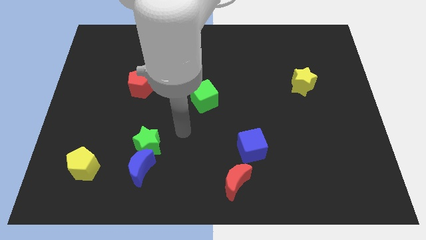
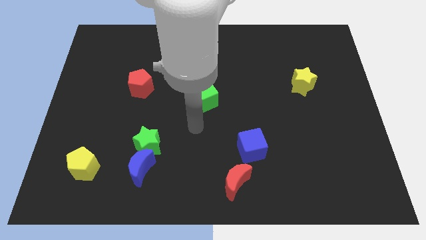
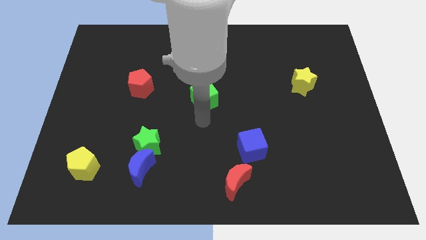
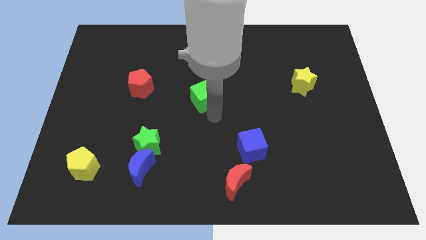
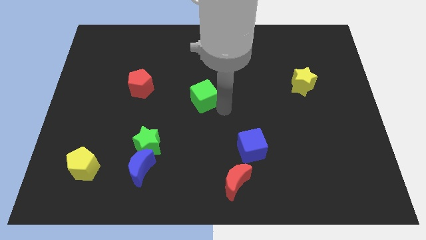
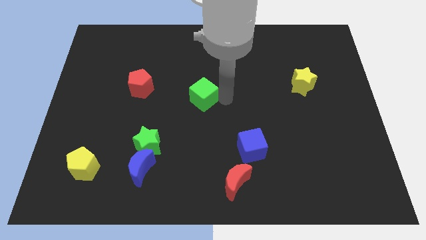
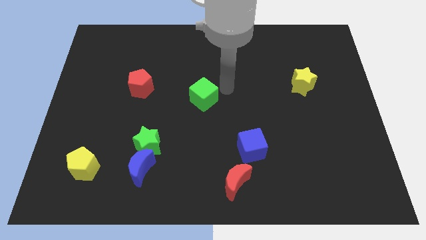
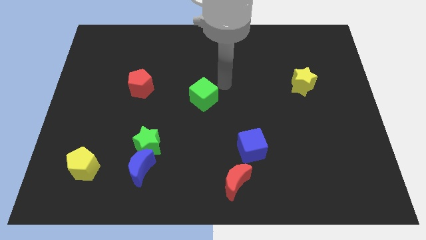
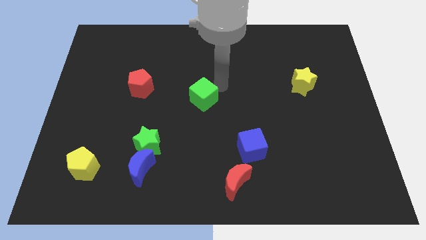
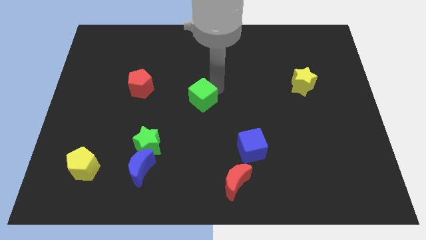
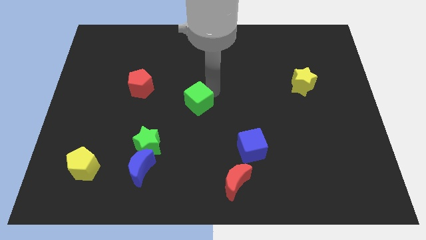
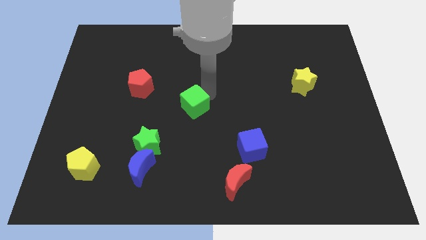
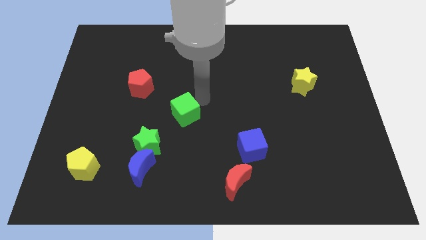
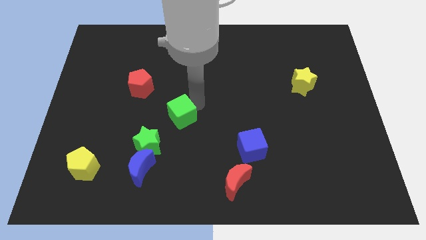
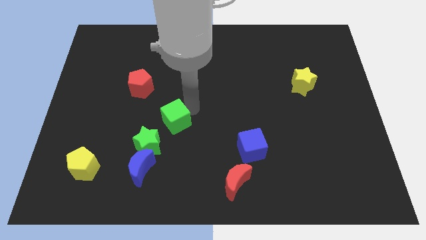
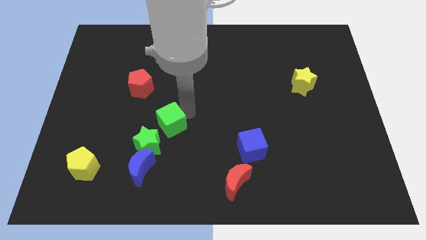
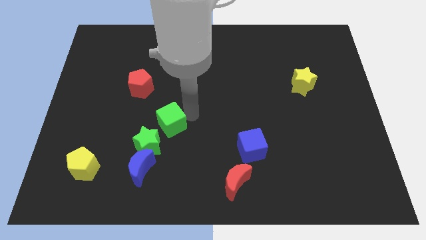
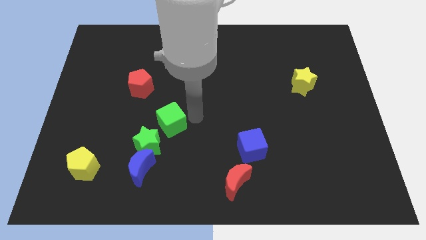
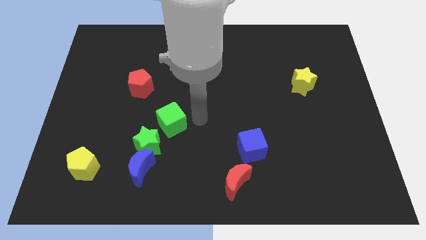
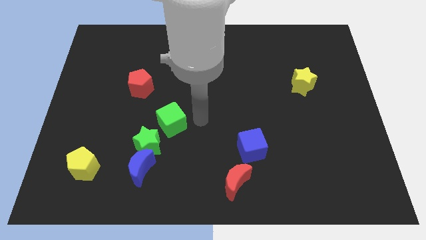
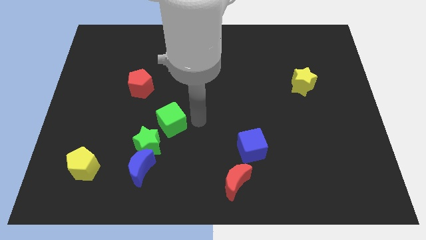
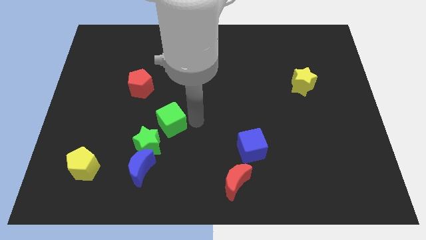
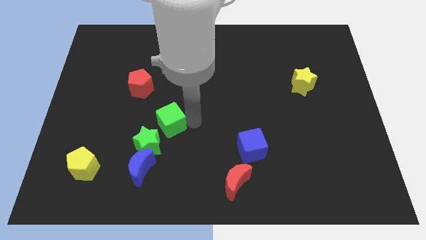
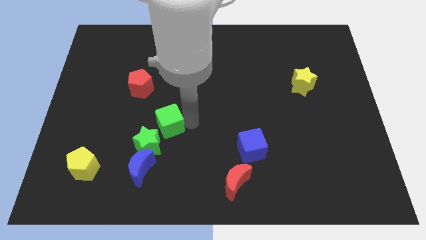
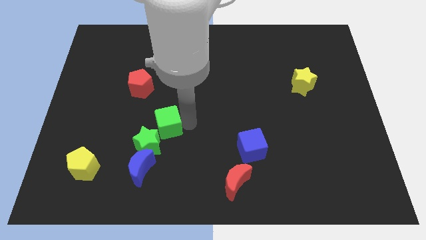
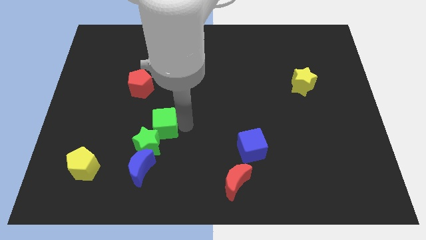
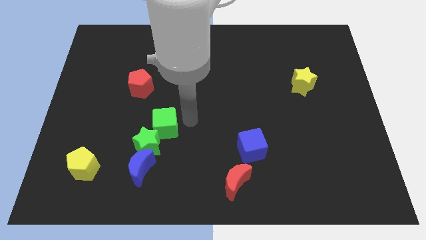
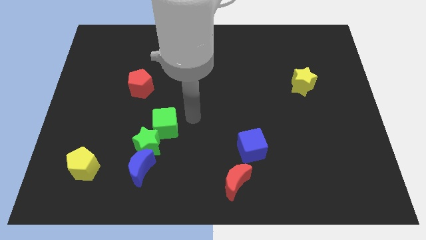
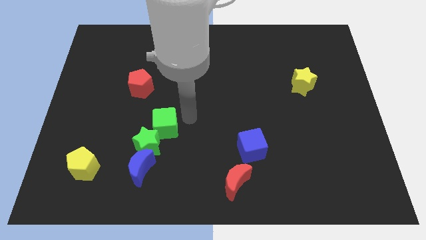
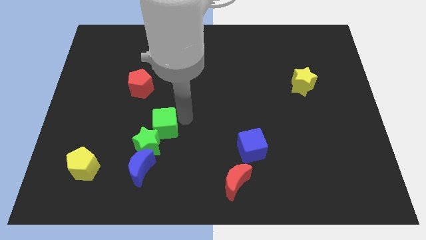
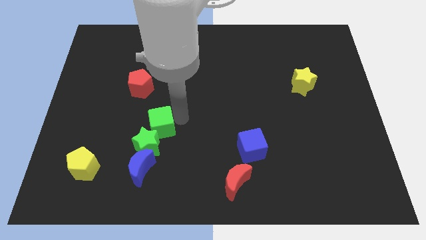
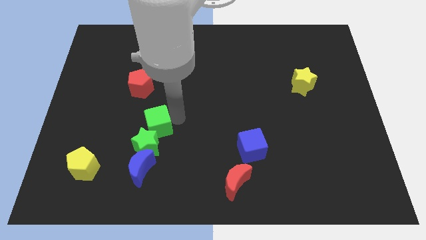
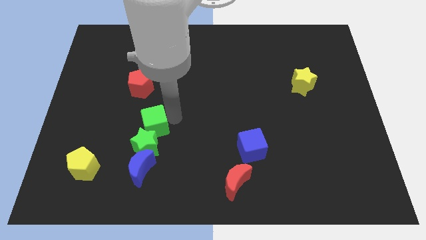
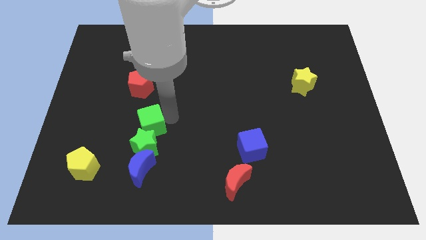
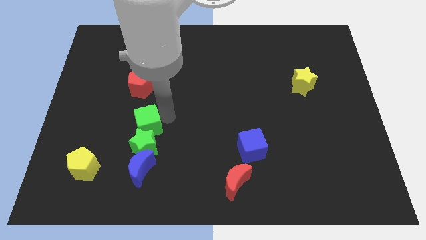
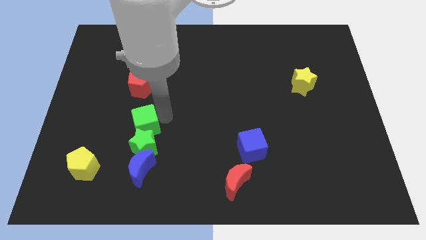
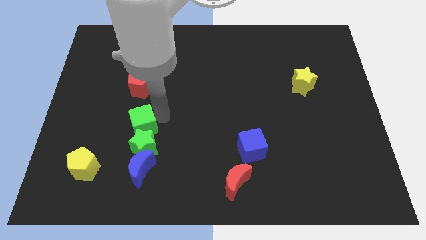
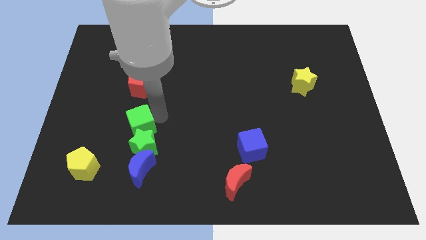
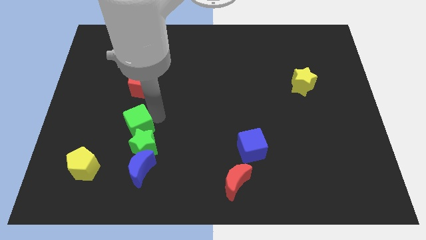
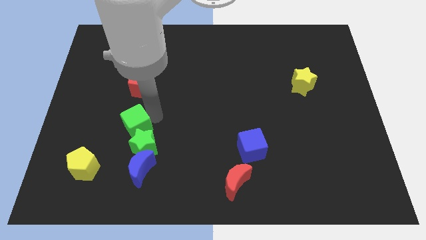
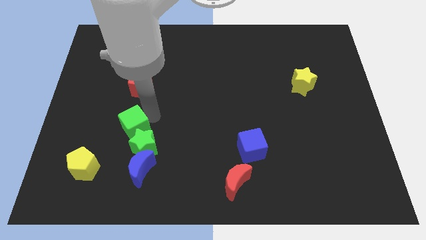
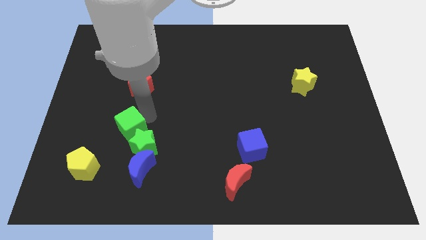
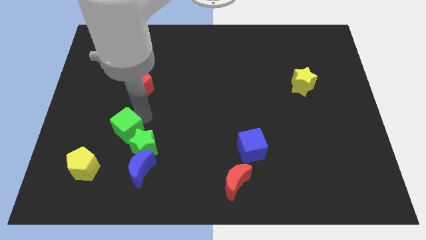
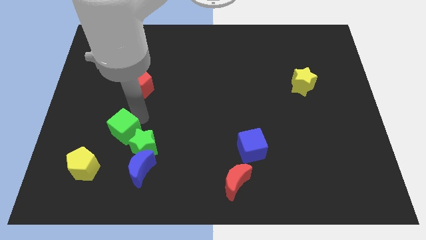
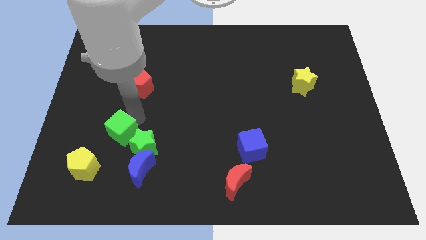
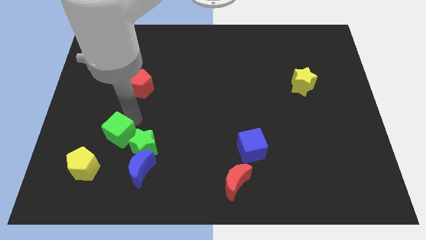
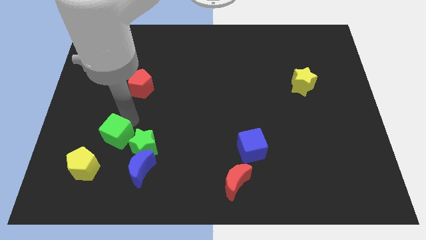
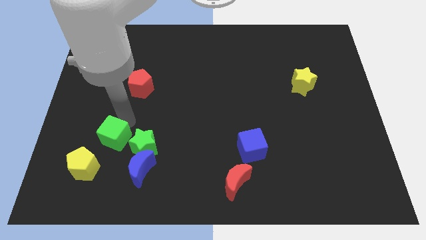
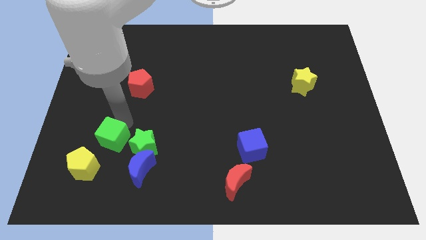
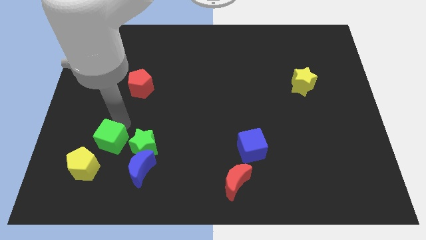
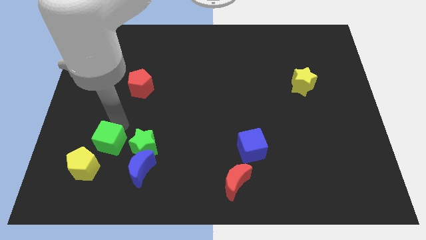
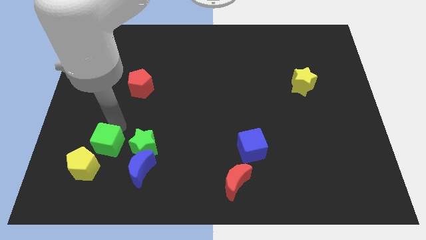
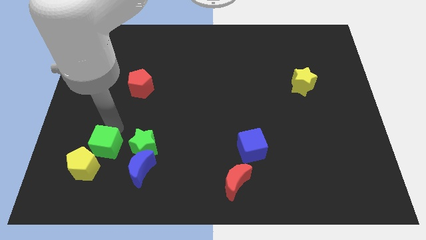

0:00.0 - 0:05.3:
put the green cube next to the yellow pentagon

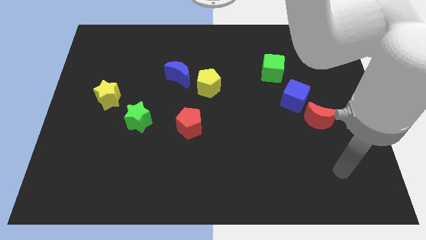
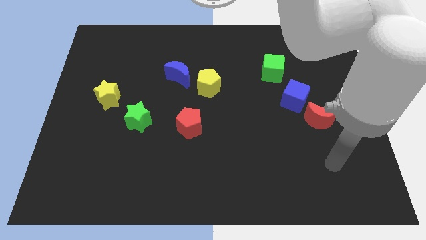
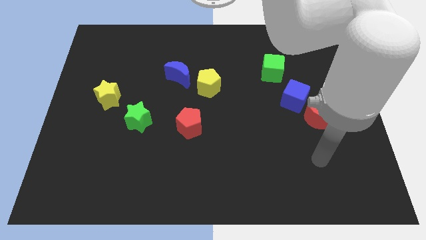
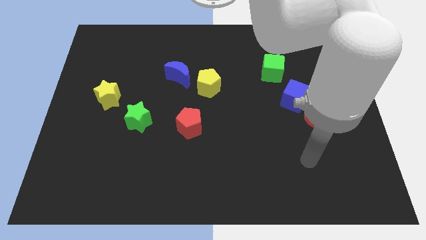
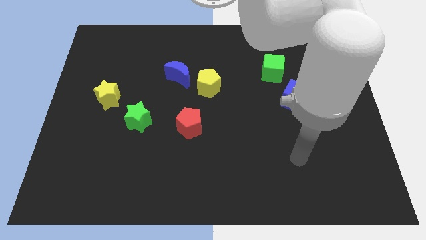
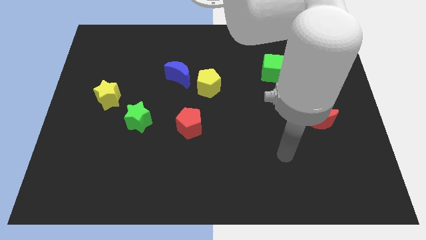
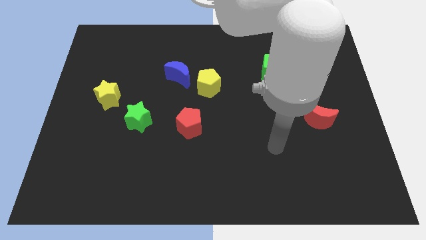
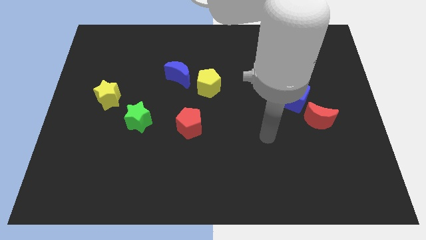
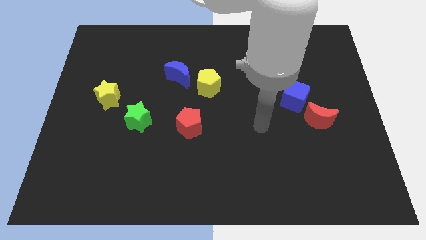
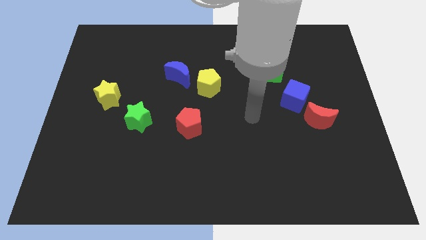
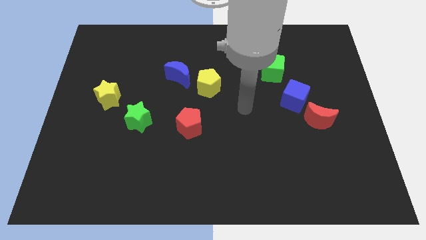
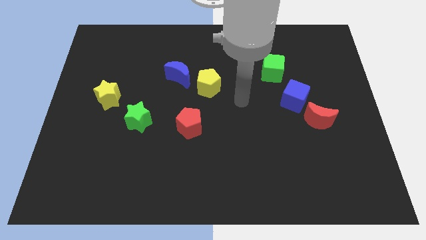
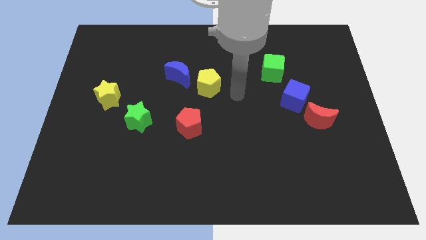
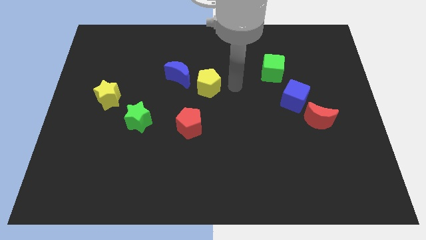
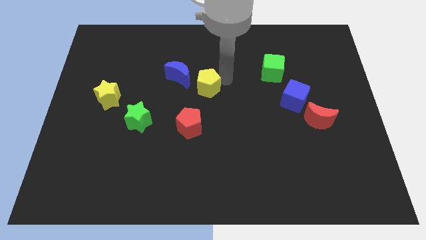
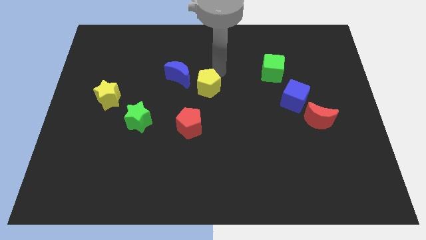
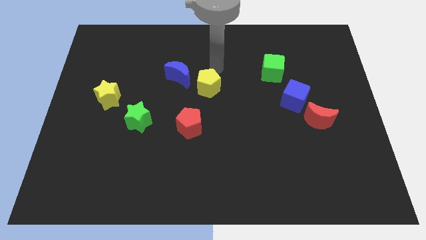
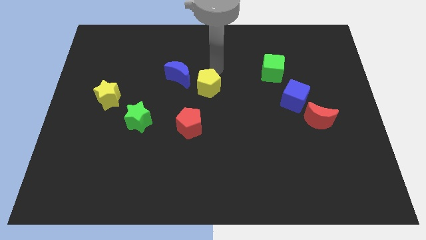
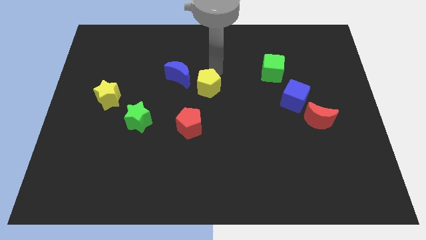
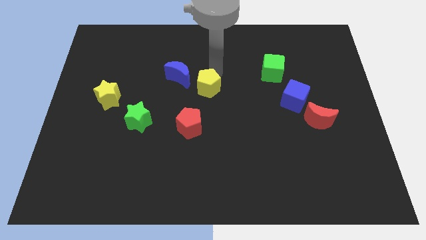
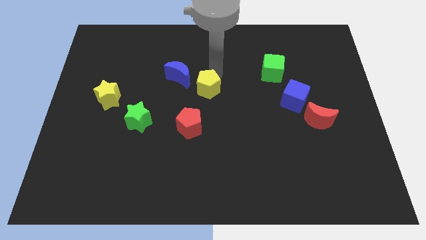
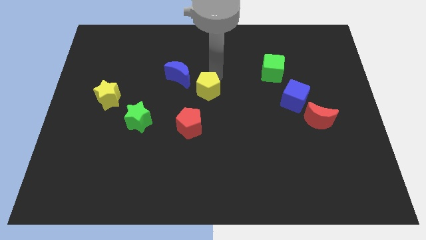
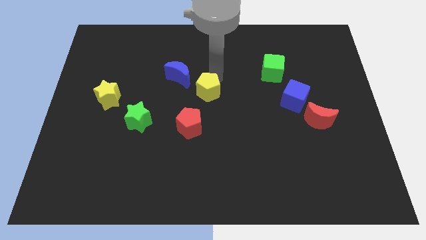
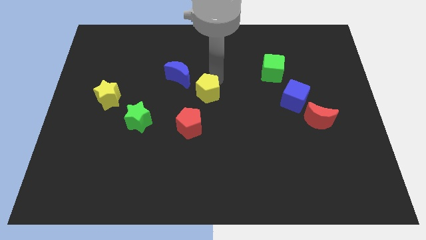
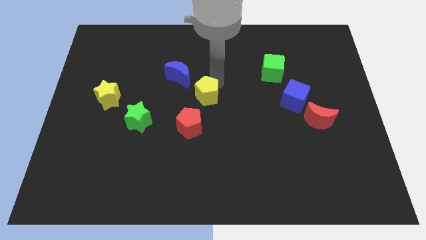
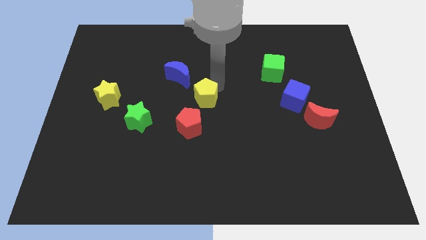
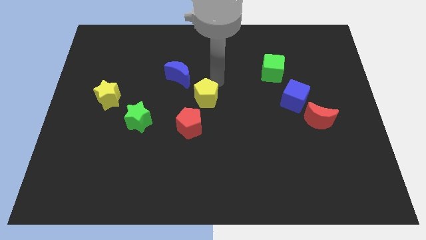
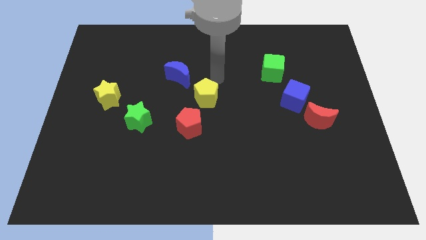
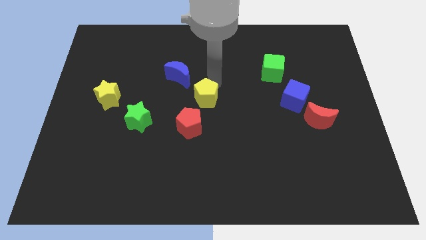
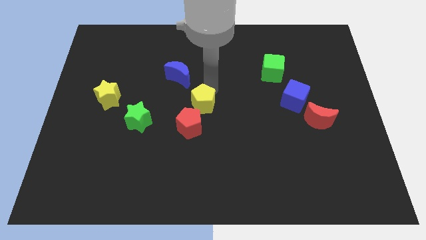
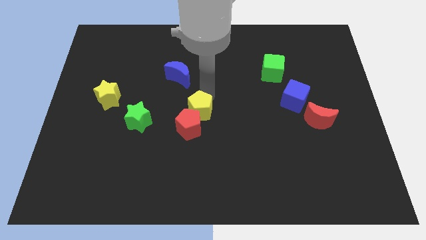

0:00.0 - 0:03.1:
put the yellow pentagon next to the red pentagon
